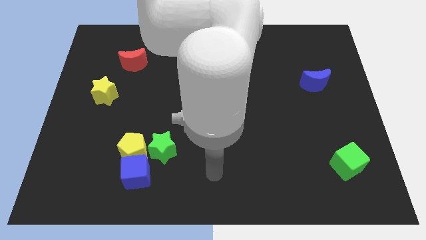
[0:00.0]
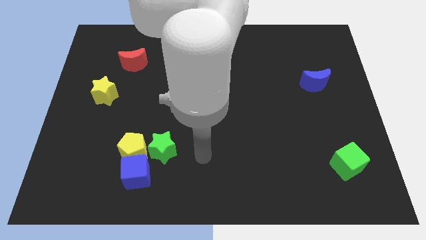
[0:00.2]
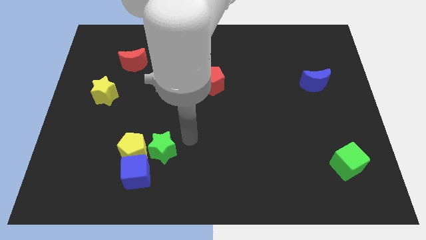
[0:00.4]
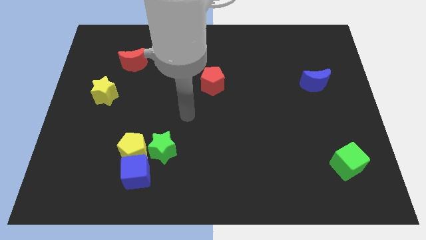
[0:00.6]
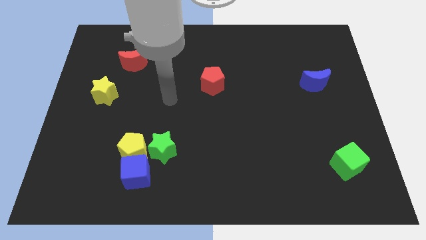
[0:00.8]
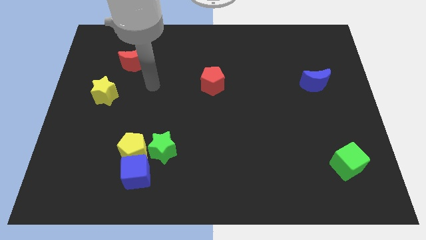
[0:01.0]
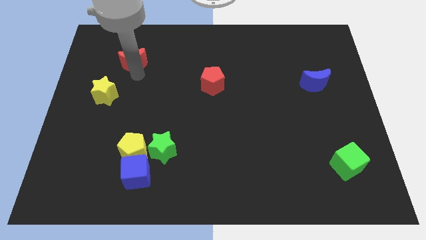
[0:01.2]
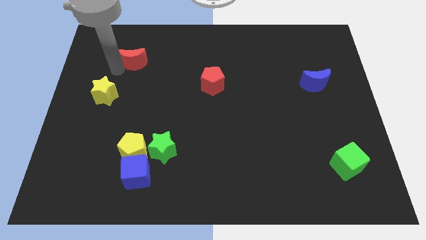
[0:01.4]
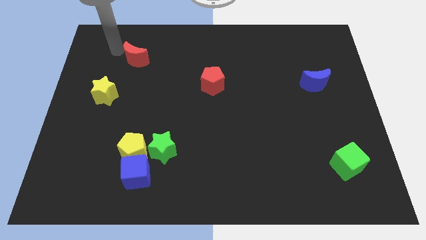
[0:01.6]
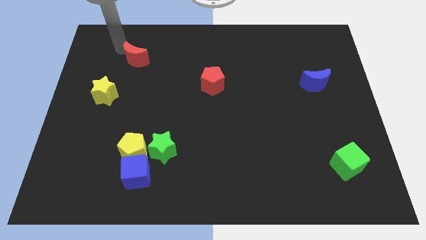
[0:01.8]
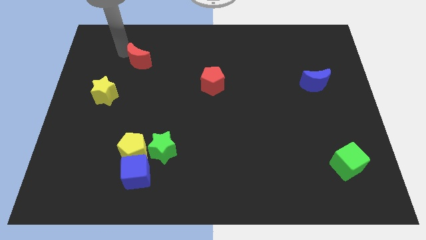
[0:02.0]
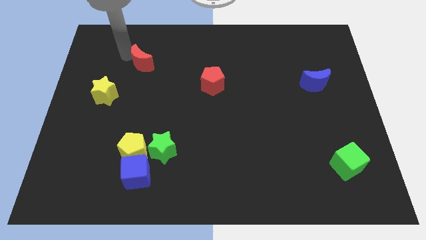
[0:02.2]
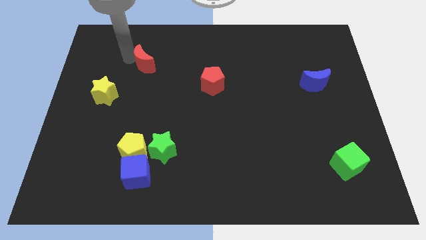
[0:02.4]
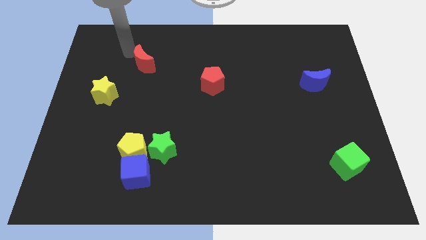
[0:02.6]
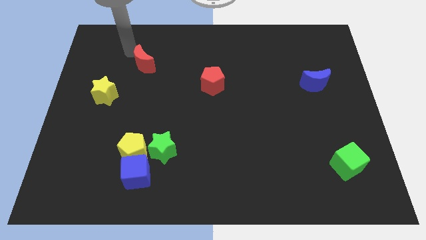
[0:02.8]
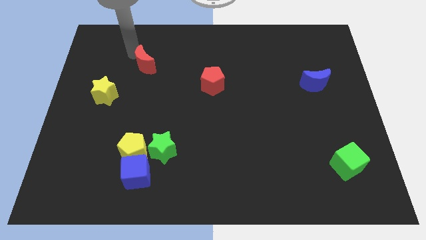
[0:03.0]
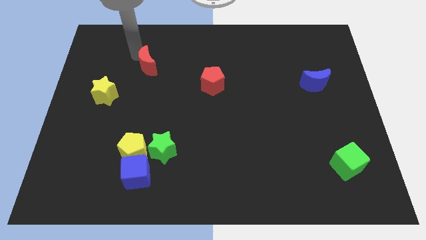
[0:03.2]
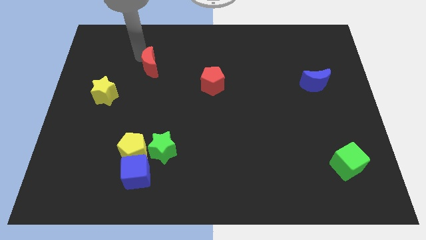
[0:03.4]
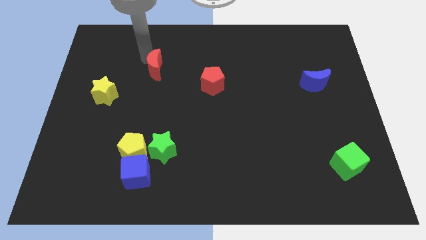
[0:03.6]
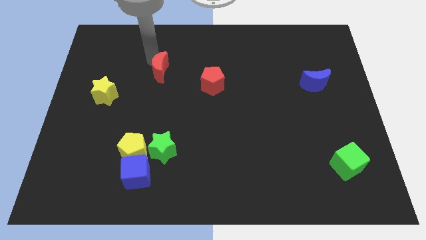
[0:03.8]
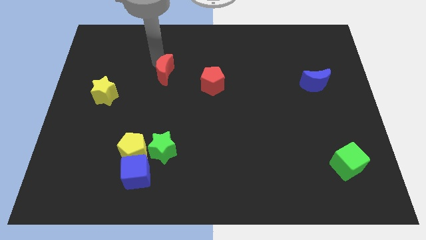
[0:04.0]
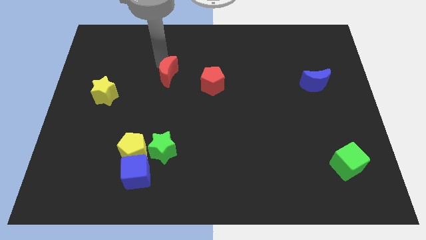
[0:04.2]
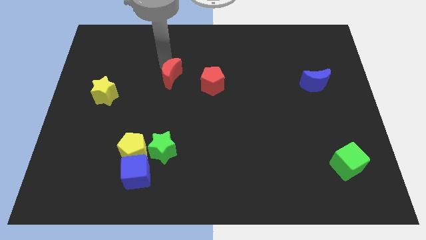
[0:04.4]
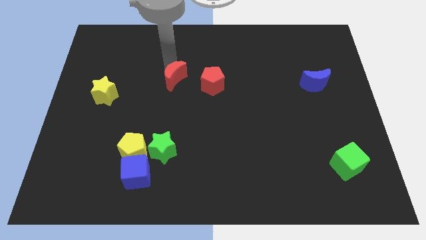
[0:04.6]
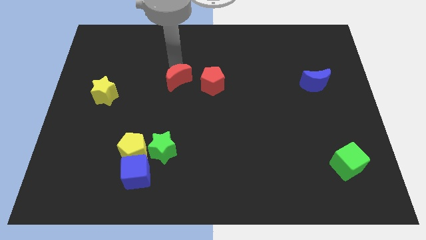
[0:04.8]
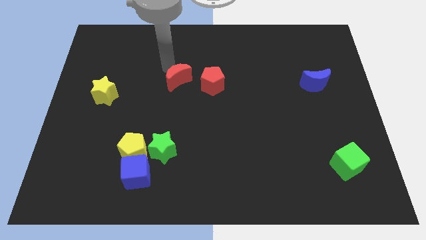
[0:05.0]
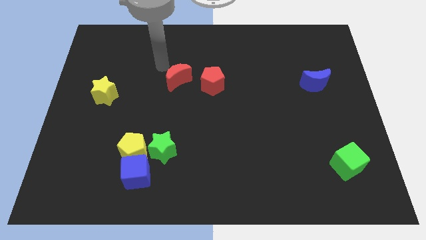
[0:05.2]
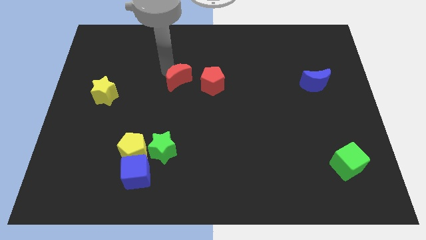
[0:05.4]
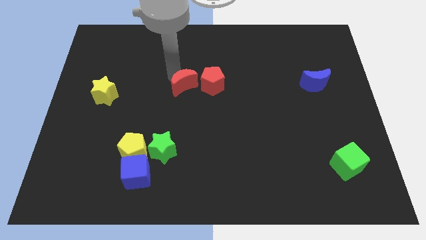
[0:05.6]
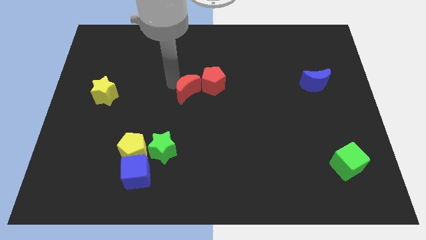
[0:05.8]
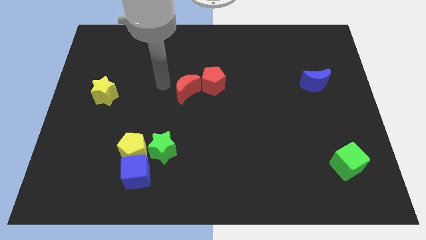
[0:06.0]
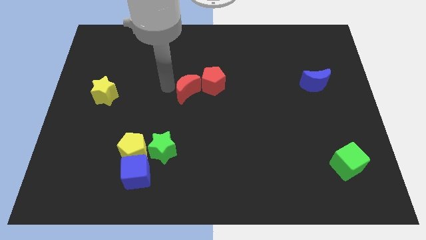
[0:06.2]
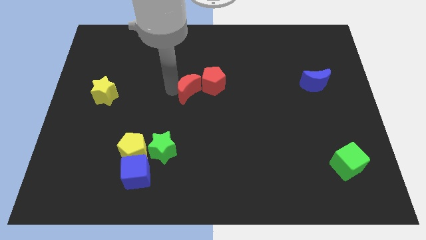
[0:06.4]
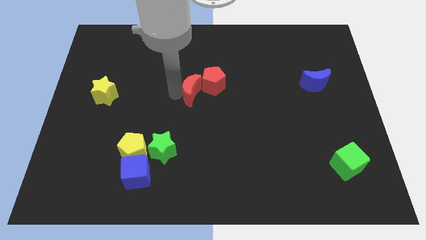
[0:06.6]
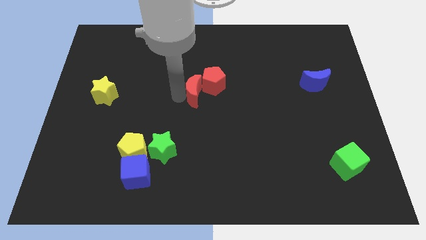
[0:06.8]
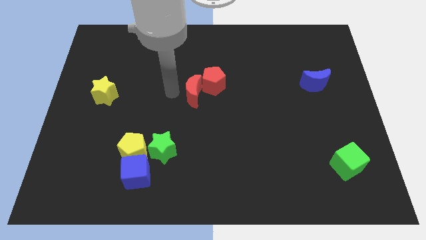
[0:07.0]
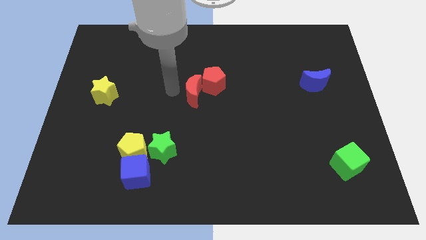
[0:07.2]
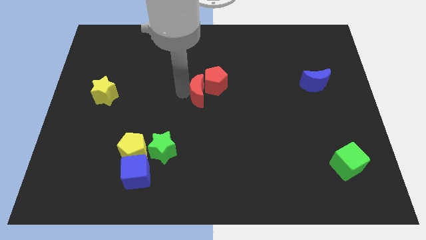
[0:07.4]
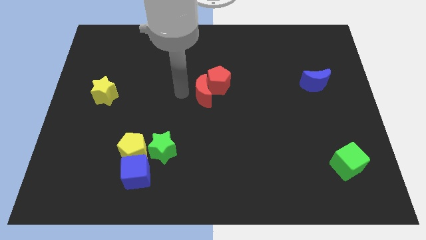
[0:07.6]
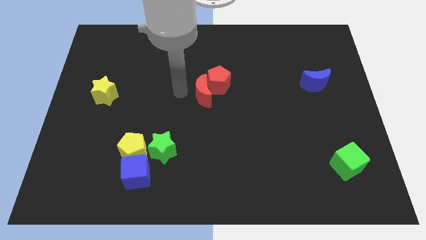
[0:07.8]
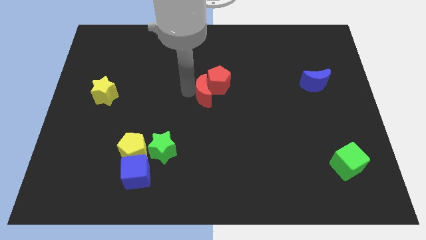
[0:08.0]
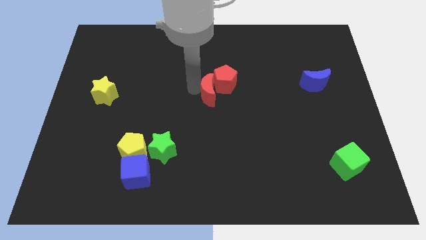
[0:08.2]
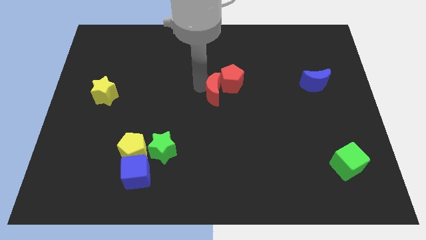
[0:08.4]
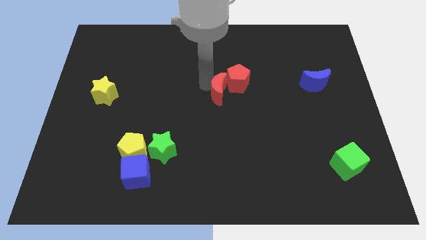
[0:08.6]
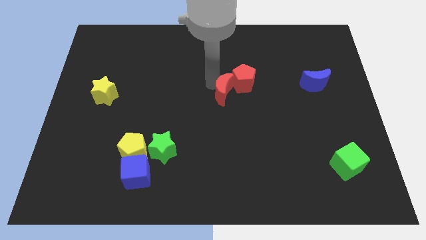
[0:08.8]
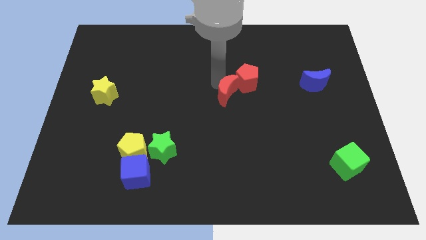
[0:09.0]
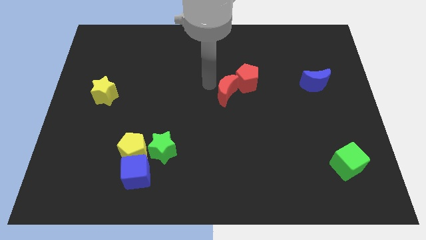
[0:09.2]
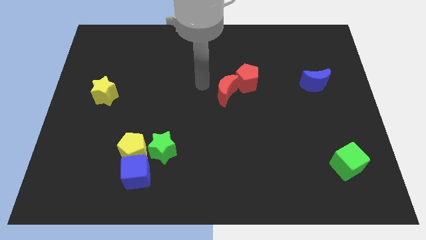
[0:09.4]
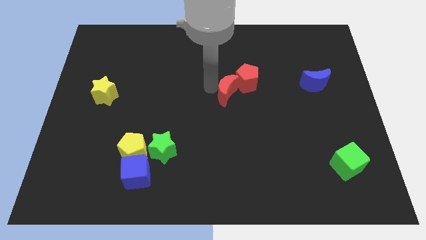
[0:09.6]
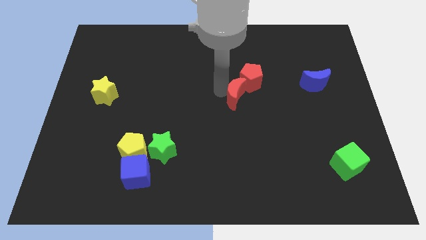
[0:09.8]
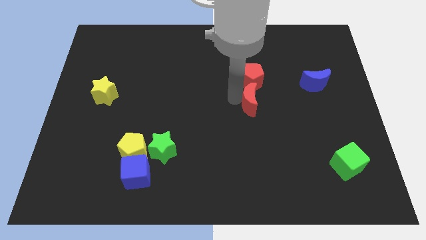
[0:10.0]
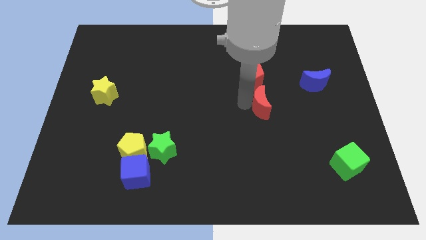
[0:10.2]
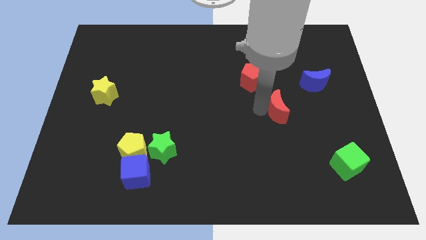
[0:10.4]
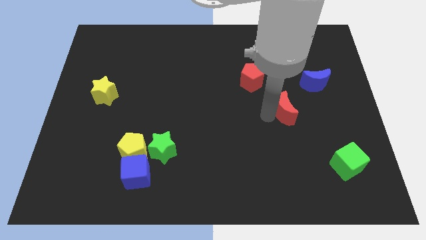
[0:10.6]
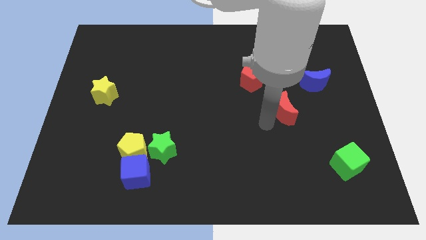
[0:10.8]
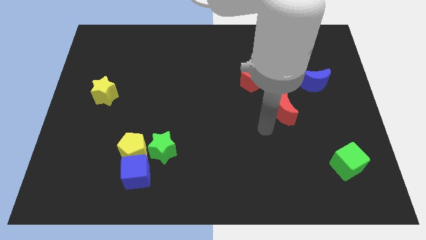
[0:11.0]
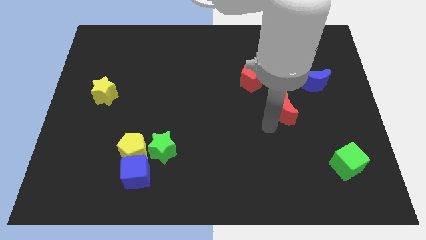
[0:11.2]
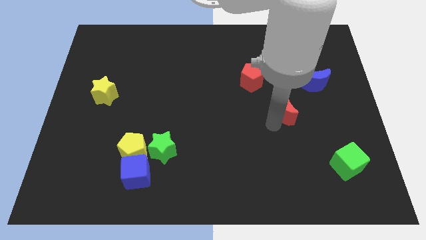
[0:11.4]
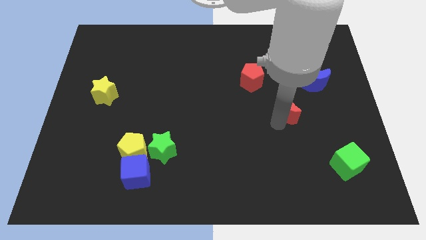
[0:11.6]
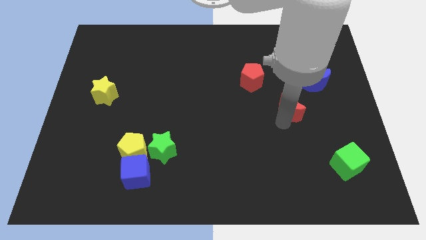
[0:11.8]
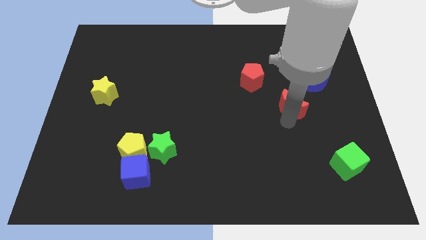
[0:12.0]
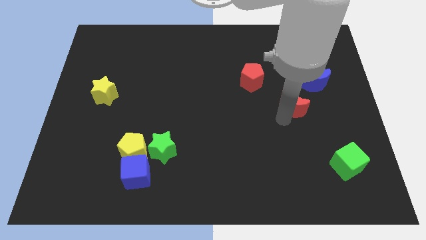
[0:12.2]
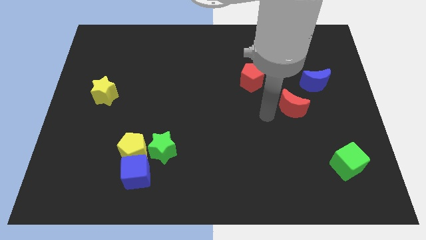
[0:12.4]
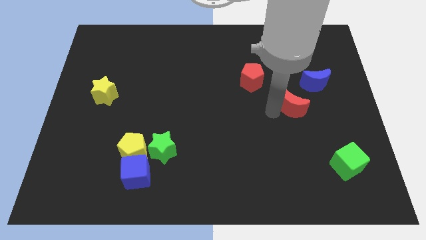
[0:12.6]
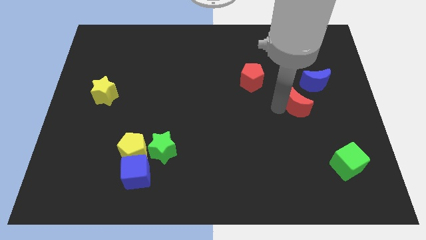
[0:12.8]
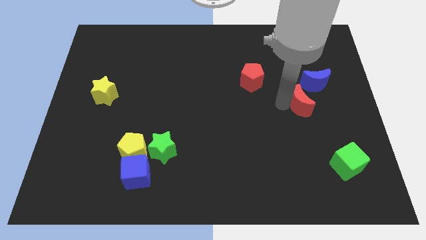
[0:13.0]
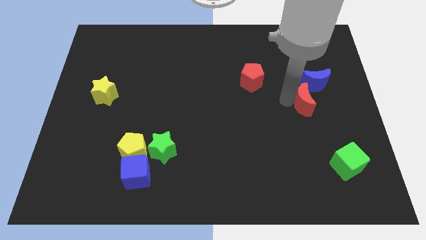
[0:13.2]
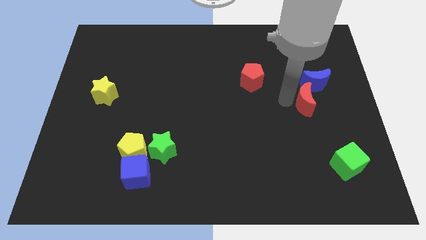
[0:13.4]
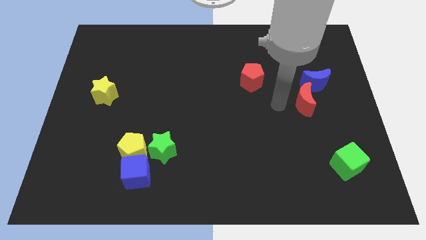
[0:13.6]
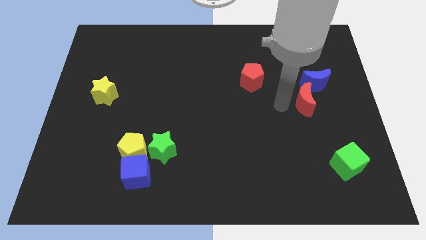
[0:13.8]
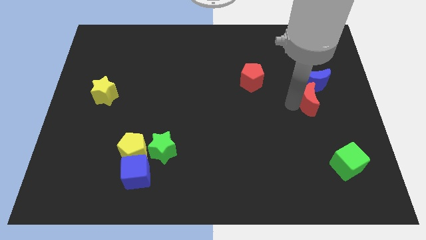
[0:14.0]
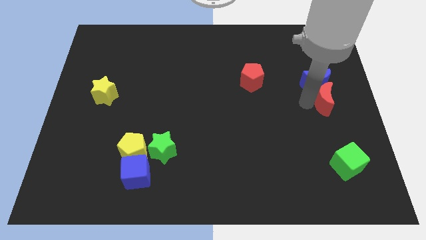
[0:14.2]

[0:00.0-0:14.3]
put the red moon to the right side
